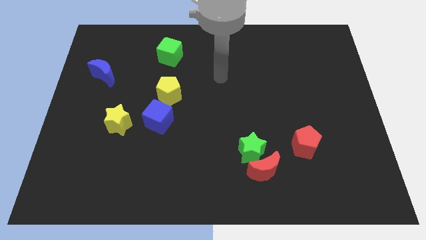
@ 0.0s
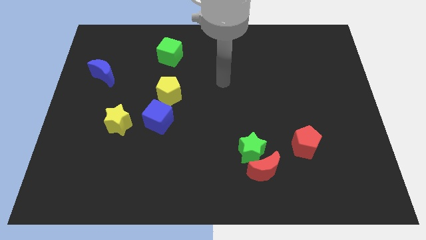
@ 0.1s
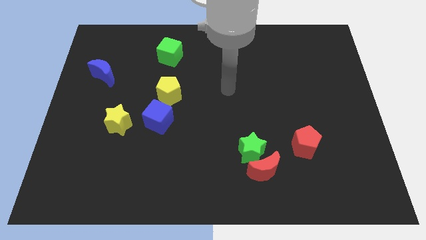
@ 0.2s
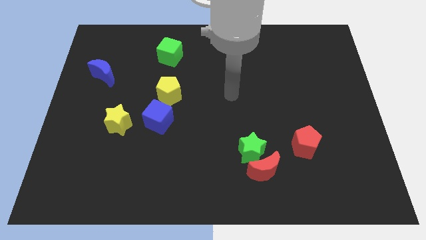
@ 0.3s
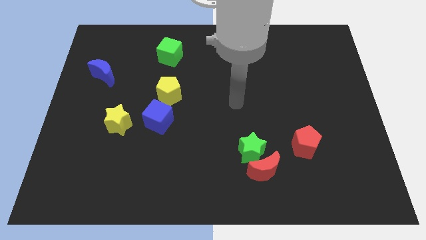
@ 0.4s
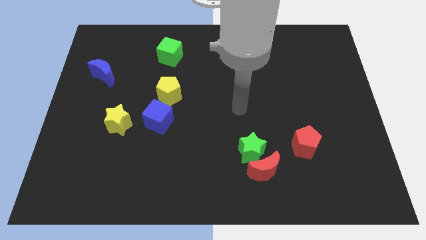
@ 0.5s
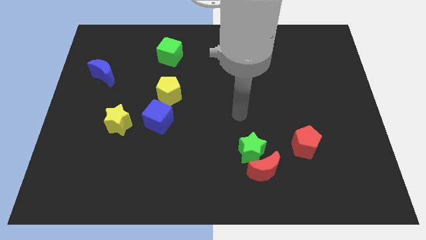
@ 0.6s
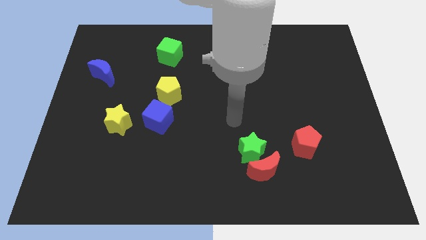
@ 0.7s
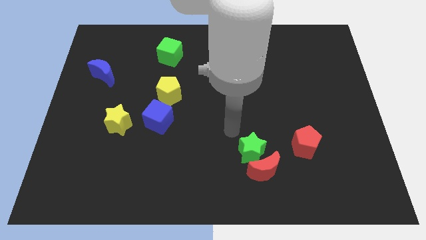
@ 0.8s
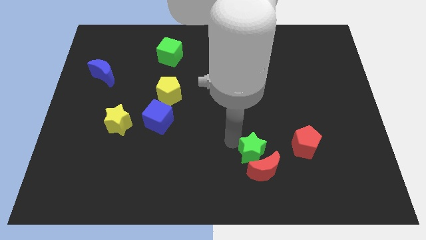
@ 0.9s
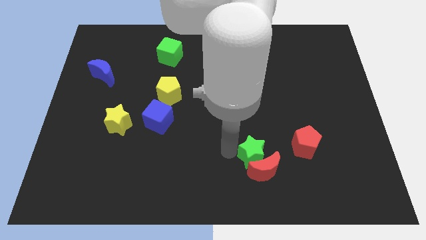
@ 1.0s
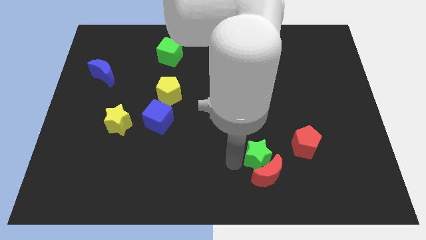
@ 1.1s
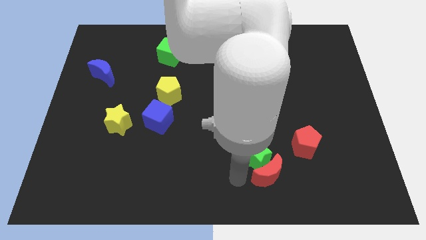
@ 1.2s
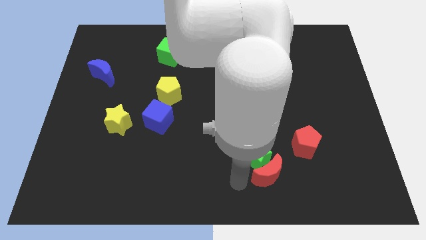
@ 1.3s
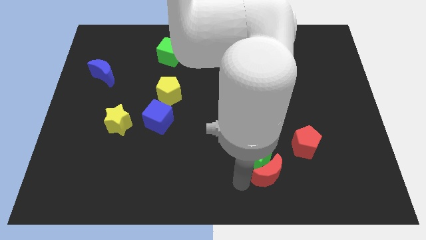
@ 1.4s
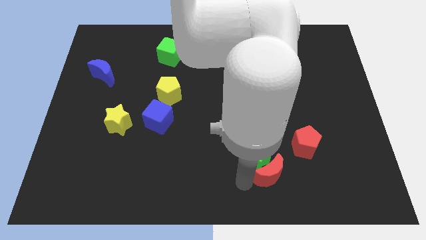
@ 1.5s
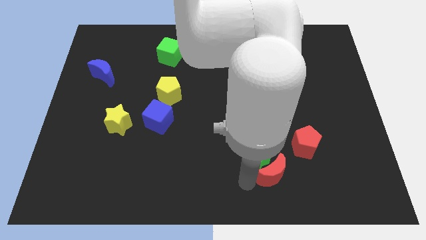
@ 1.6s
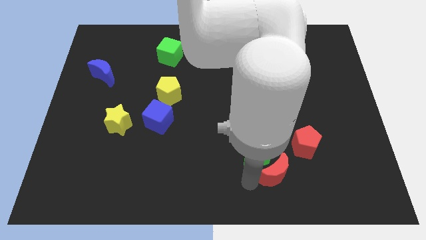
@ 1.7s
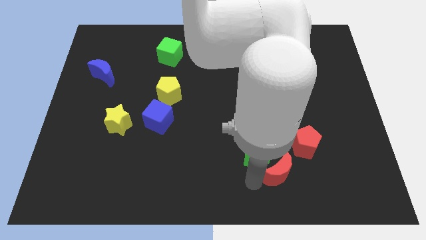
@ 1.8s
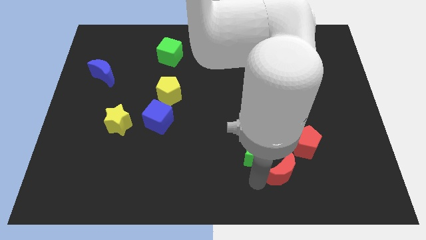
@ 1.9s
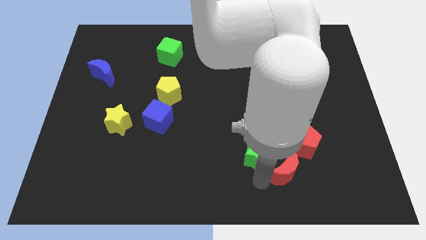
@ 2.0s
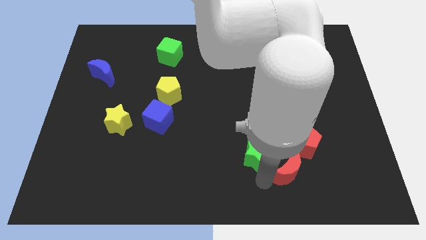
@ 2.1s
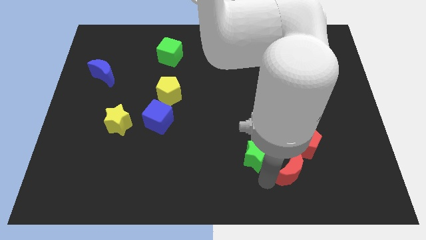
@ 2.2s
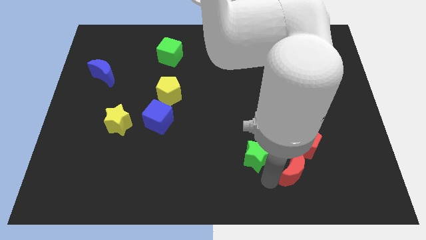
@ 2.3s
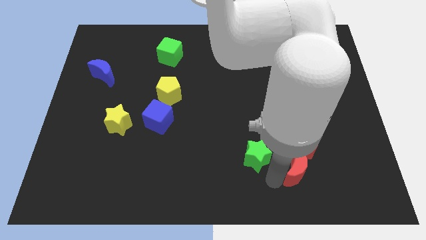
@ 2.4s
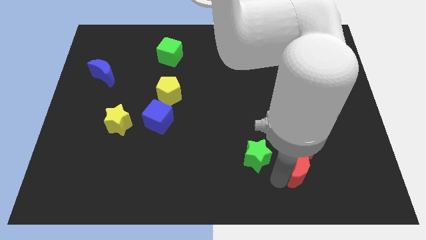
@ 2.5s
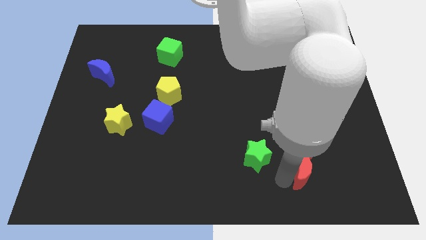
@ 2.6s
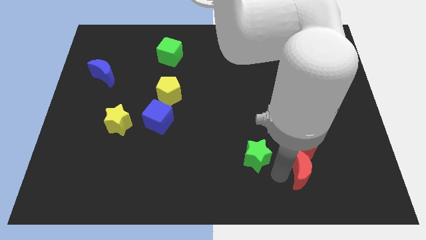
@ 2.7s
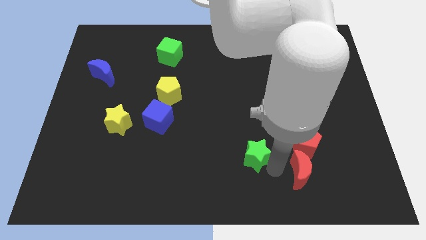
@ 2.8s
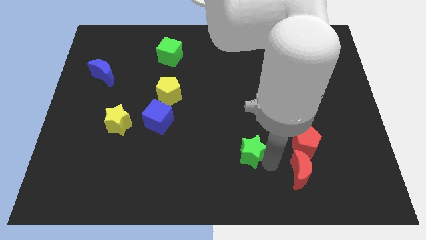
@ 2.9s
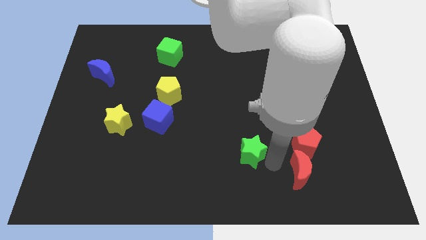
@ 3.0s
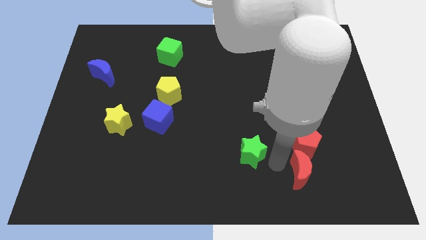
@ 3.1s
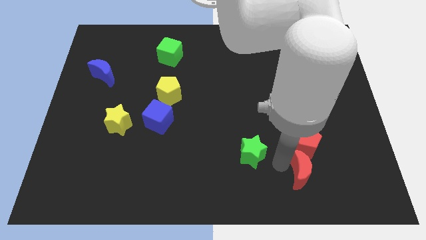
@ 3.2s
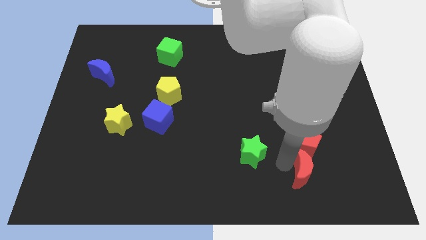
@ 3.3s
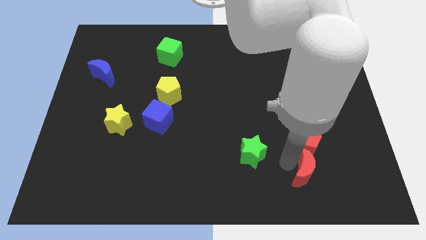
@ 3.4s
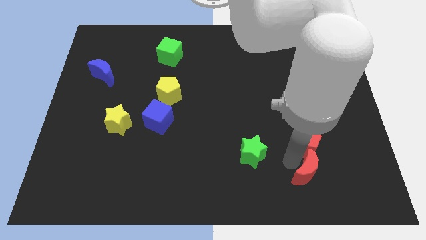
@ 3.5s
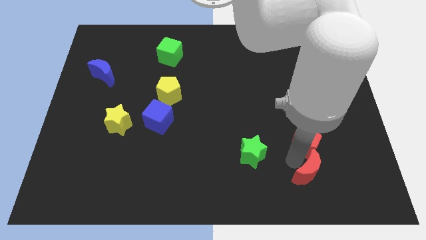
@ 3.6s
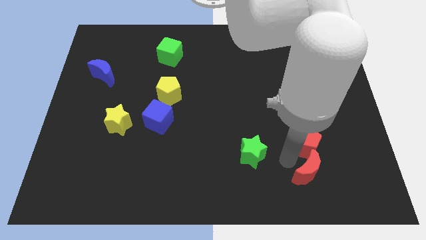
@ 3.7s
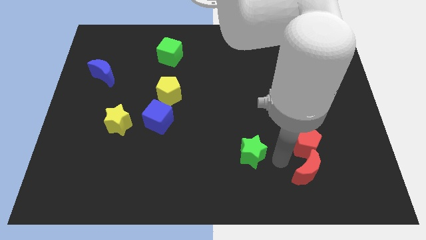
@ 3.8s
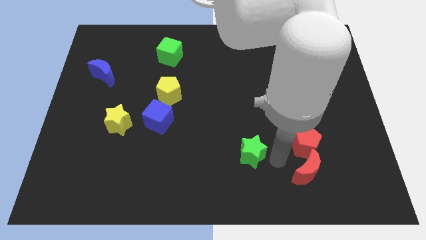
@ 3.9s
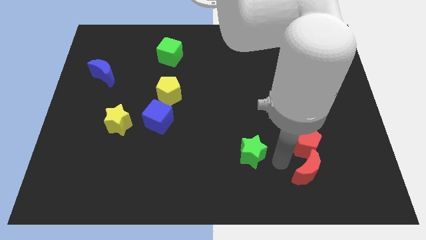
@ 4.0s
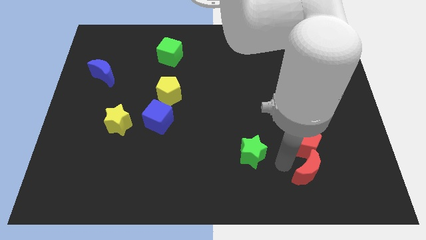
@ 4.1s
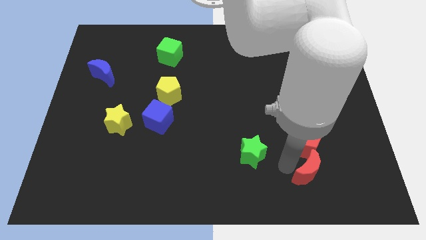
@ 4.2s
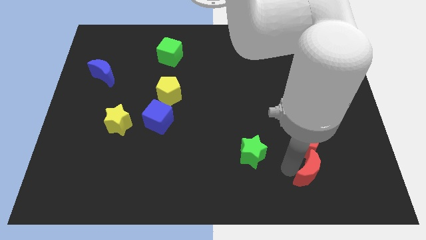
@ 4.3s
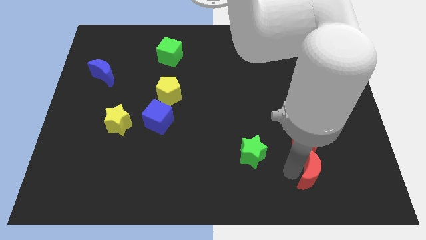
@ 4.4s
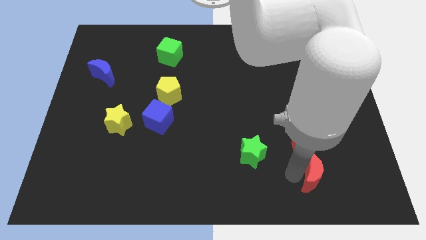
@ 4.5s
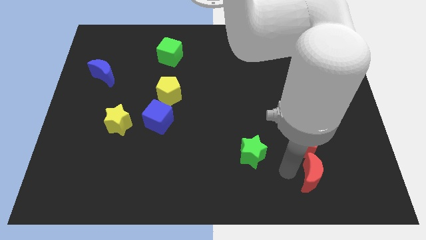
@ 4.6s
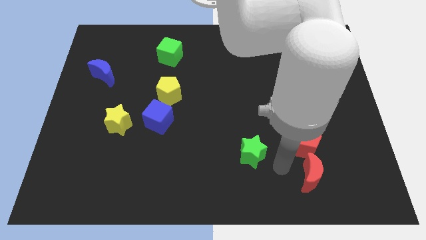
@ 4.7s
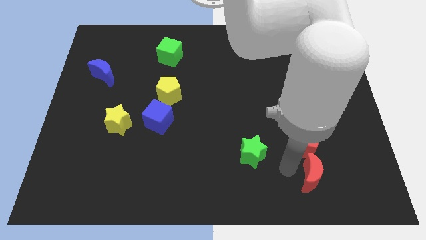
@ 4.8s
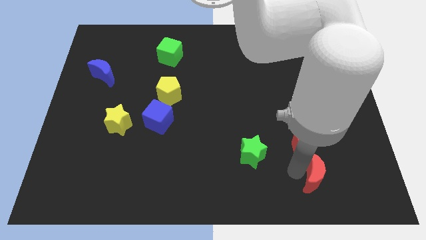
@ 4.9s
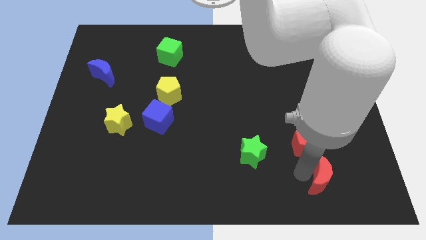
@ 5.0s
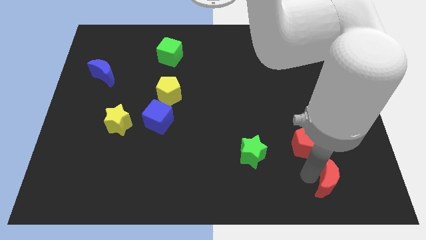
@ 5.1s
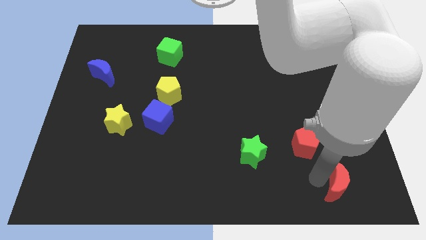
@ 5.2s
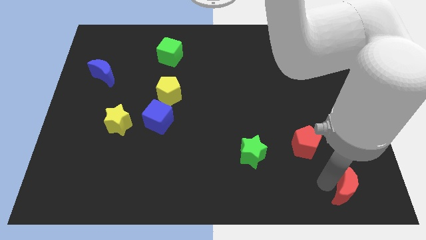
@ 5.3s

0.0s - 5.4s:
slide the red moon to the bottom right of the board
